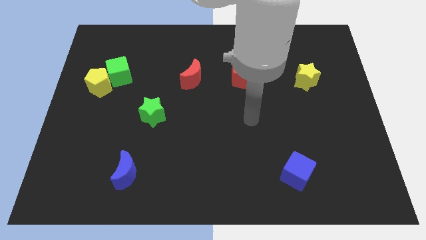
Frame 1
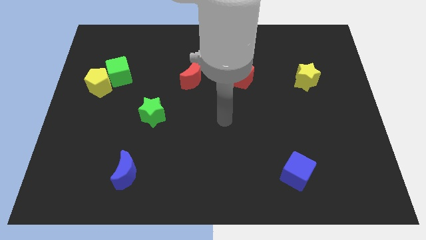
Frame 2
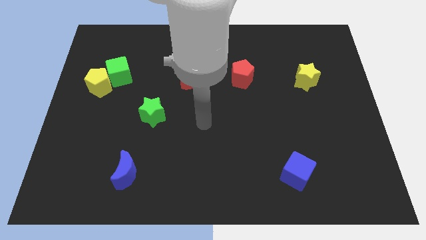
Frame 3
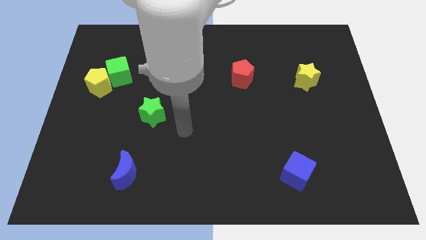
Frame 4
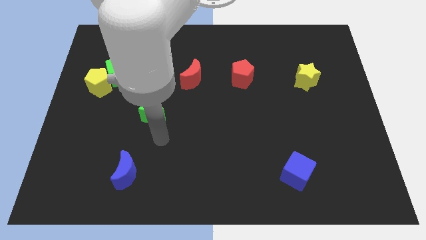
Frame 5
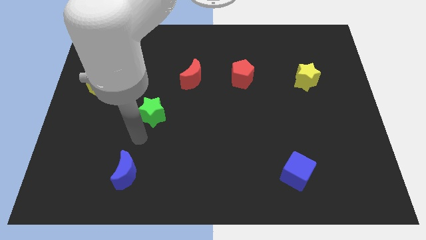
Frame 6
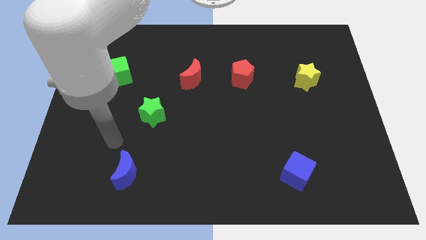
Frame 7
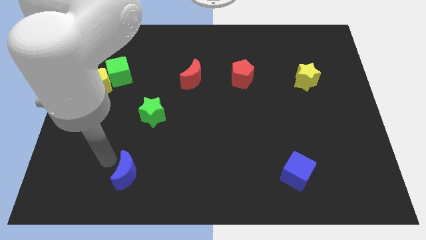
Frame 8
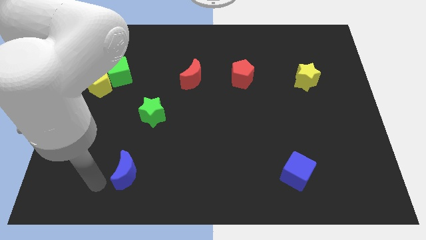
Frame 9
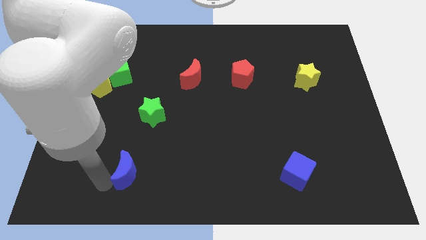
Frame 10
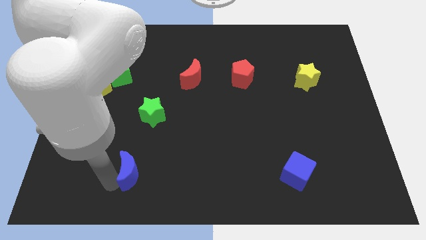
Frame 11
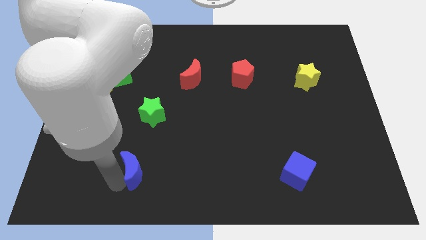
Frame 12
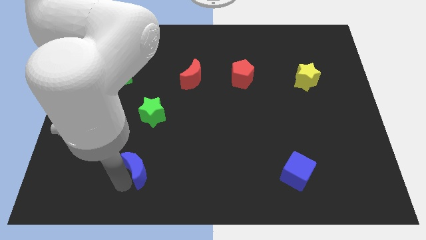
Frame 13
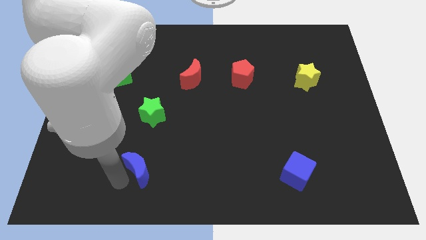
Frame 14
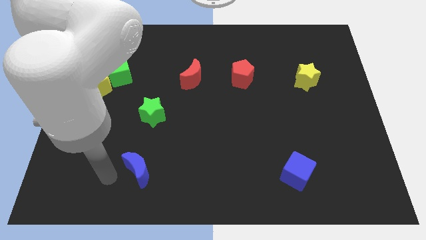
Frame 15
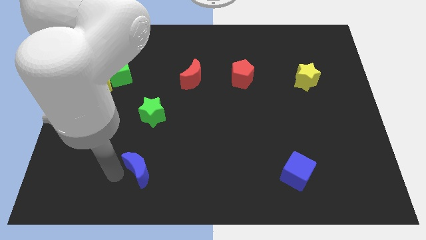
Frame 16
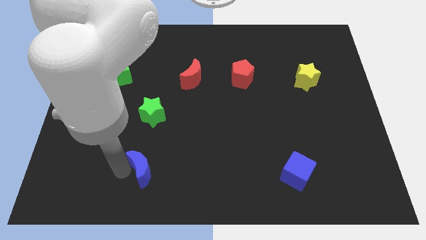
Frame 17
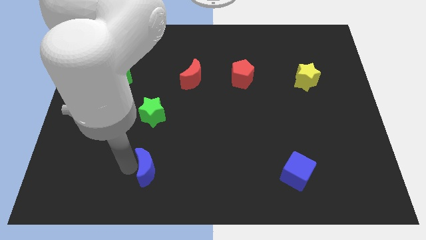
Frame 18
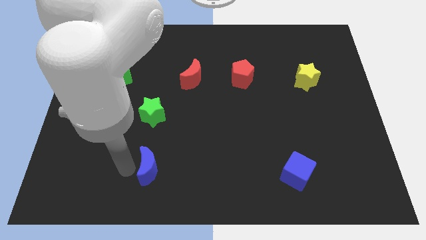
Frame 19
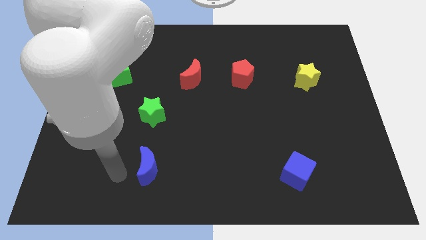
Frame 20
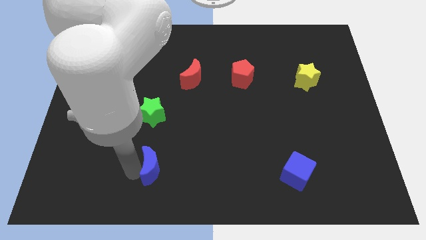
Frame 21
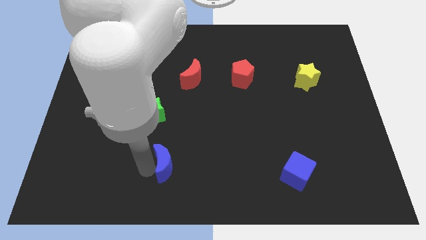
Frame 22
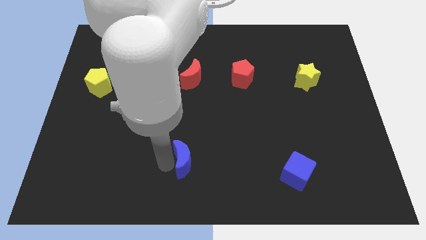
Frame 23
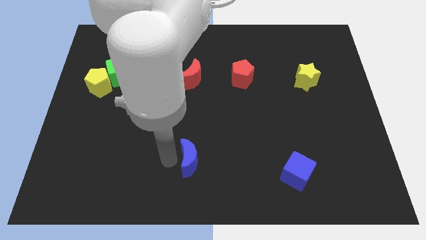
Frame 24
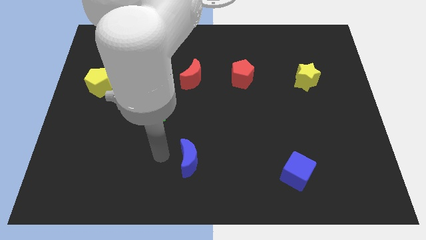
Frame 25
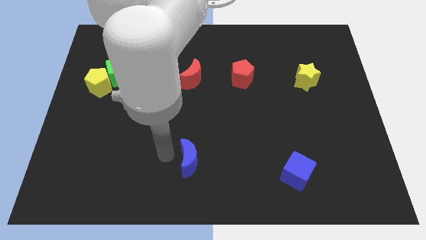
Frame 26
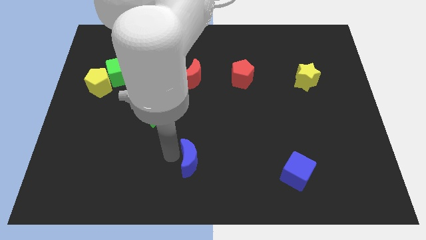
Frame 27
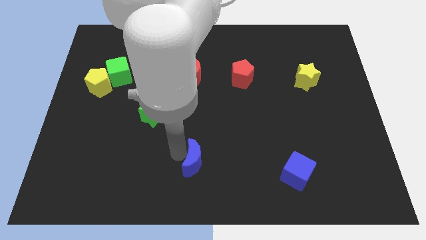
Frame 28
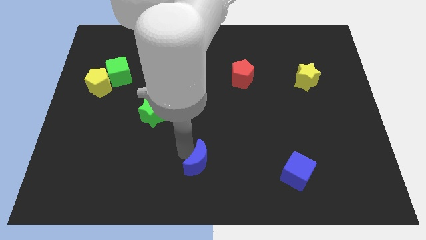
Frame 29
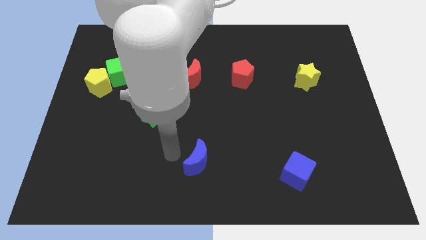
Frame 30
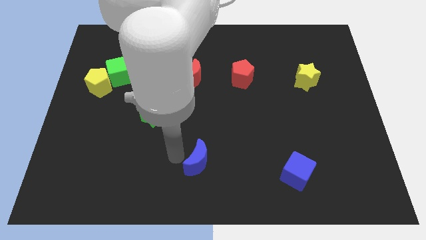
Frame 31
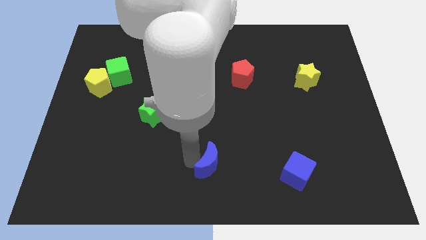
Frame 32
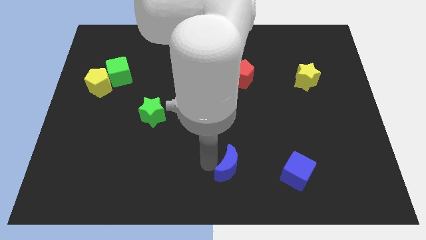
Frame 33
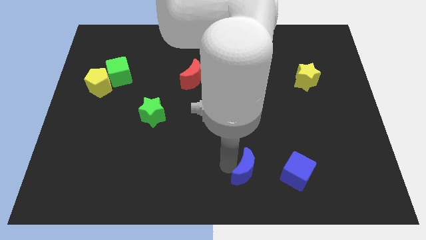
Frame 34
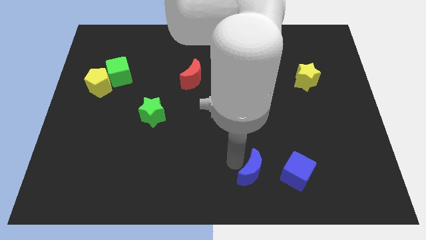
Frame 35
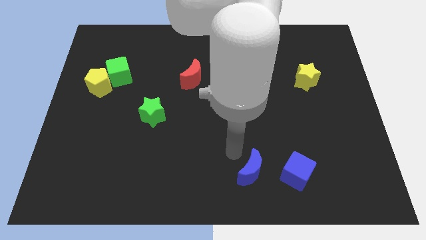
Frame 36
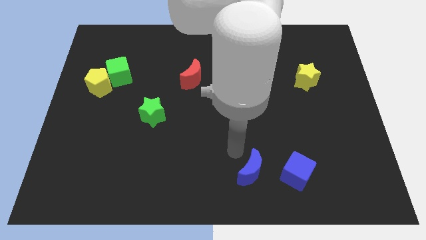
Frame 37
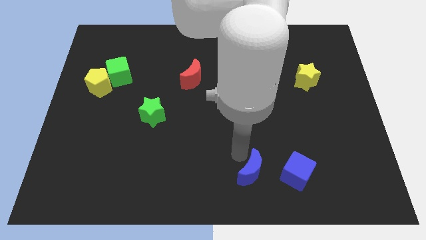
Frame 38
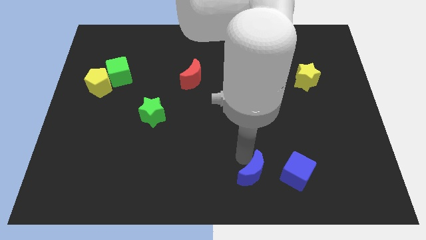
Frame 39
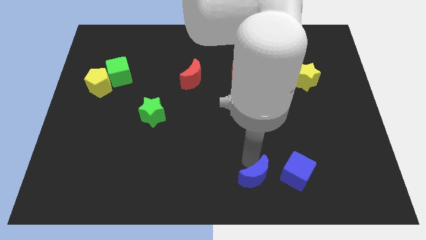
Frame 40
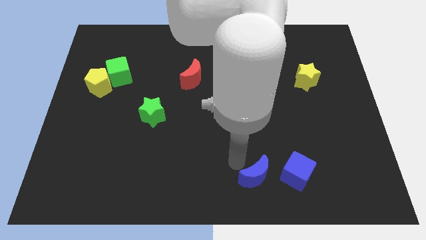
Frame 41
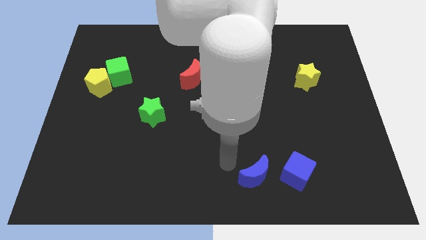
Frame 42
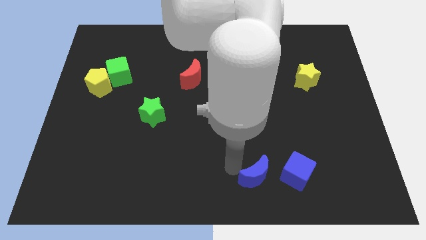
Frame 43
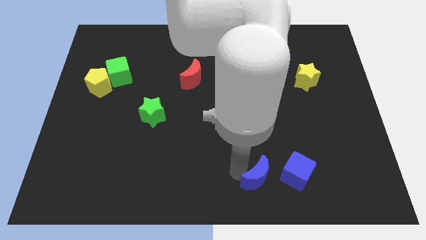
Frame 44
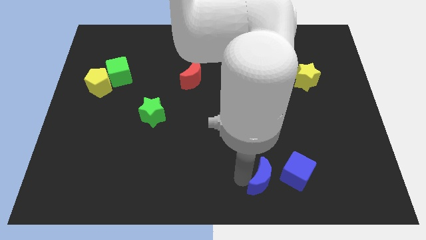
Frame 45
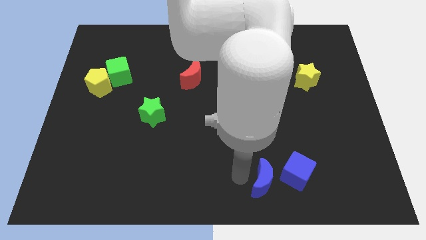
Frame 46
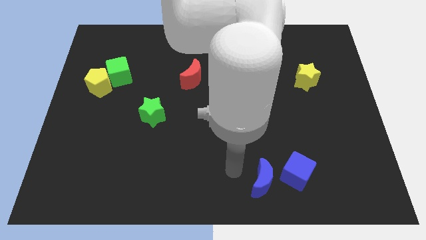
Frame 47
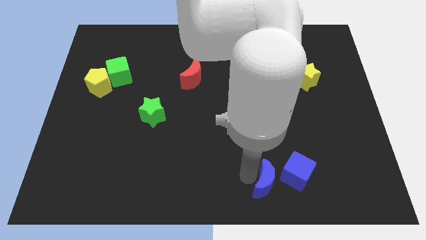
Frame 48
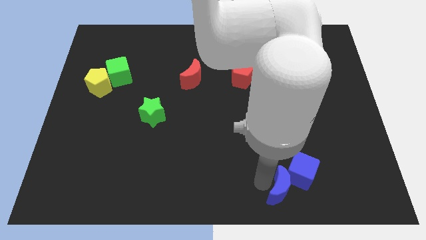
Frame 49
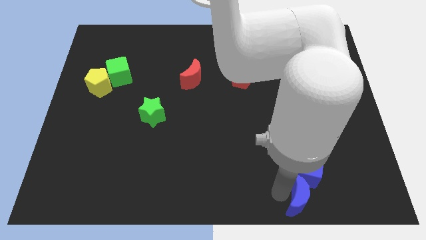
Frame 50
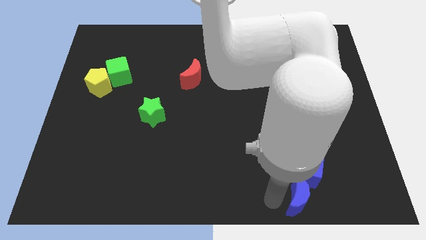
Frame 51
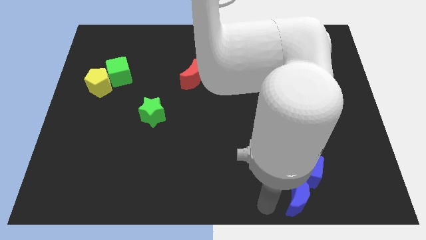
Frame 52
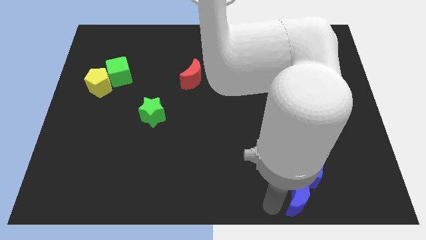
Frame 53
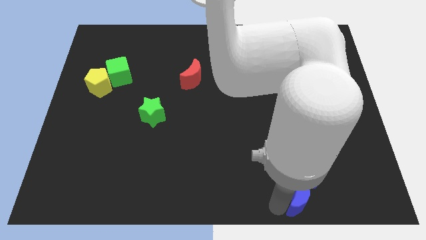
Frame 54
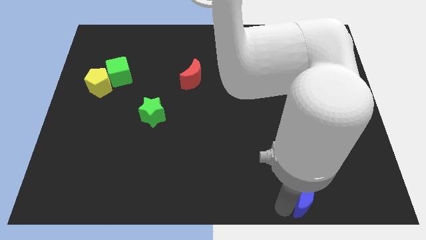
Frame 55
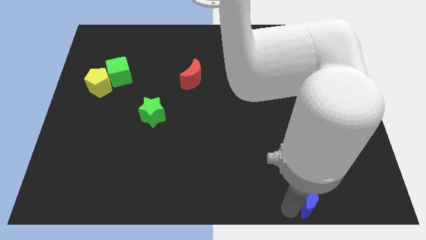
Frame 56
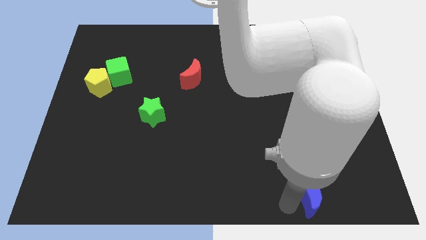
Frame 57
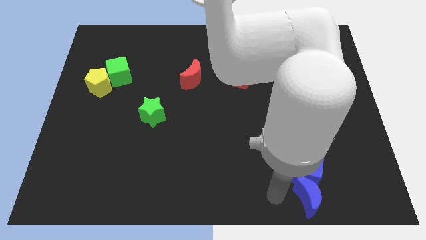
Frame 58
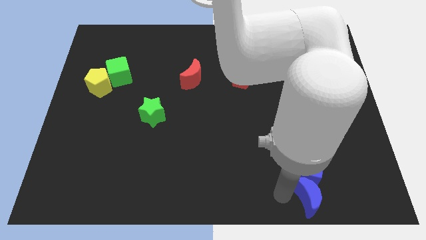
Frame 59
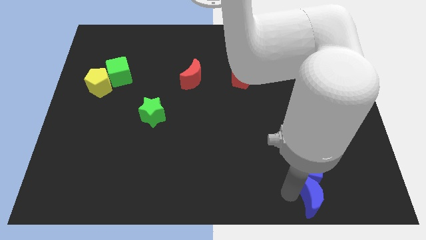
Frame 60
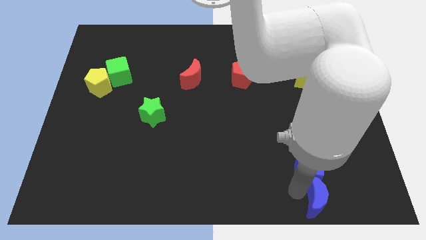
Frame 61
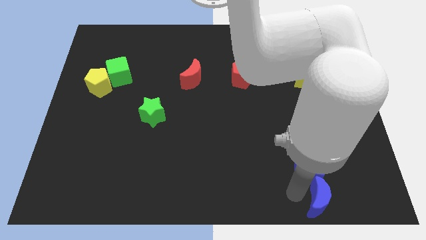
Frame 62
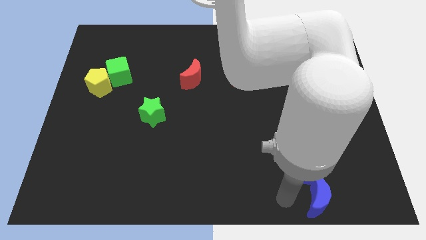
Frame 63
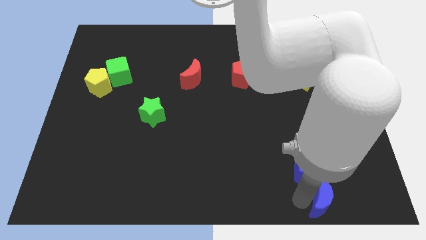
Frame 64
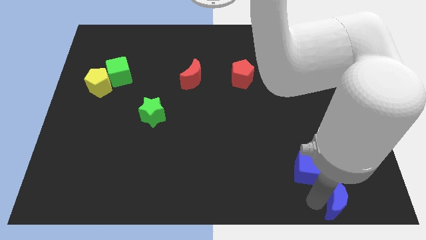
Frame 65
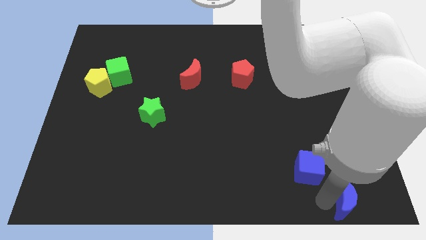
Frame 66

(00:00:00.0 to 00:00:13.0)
slide the blue moon to the bottom right

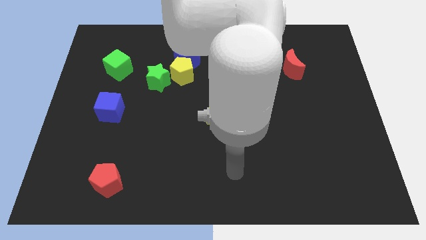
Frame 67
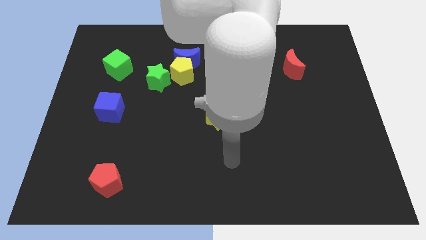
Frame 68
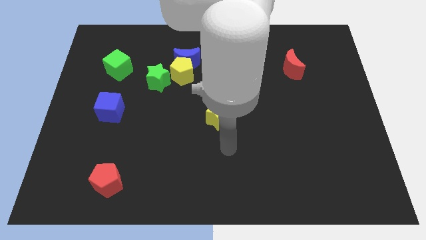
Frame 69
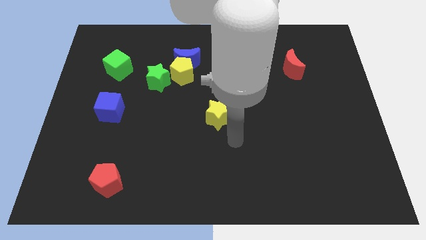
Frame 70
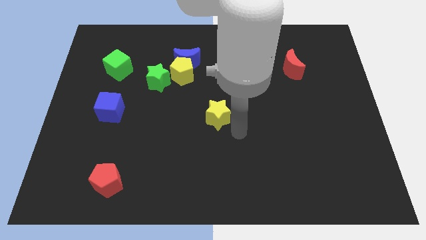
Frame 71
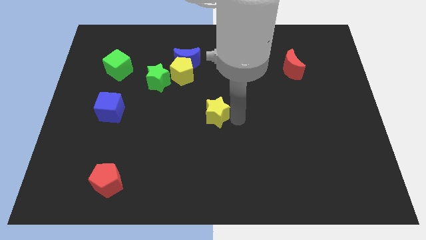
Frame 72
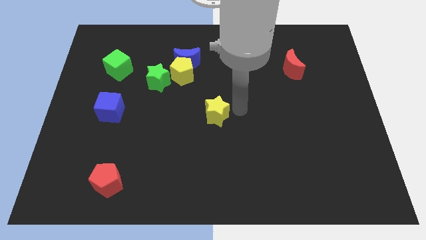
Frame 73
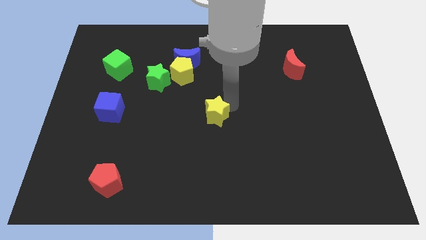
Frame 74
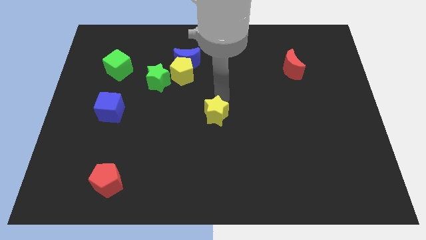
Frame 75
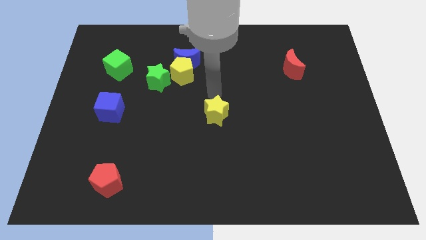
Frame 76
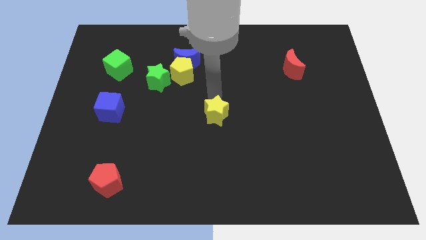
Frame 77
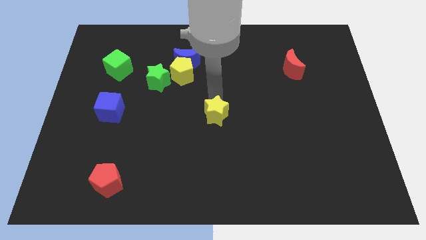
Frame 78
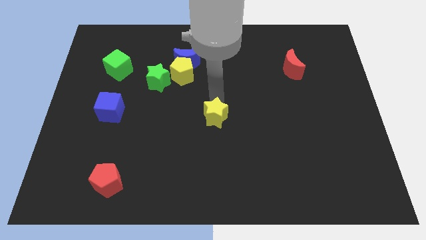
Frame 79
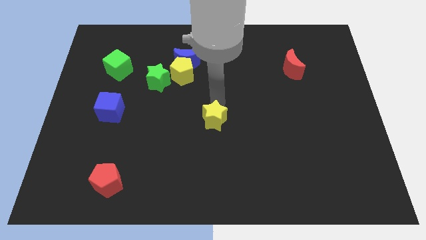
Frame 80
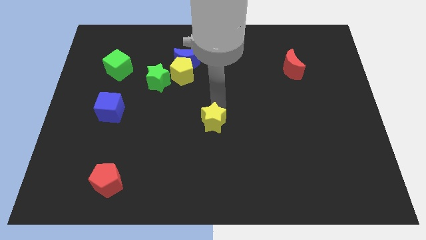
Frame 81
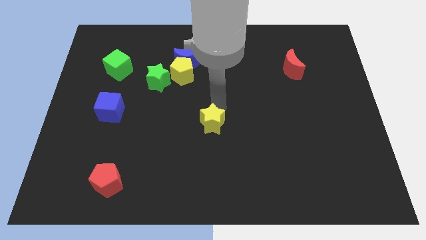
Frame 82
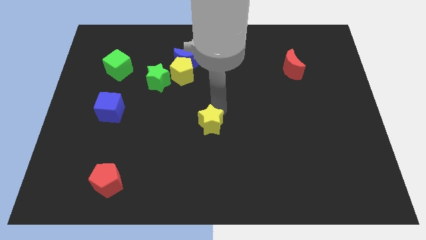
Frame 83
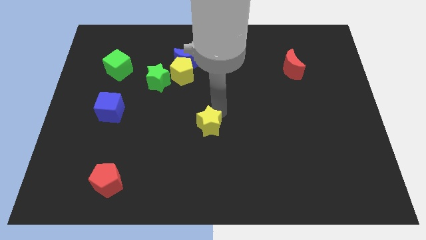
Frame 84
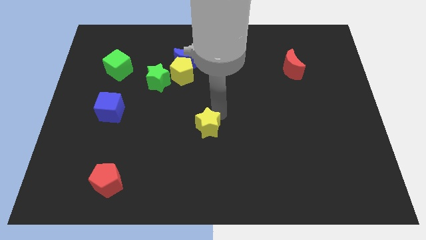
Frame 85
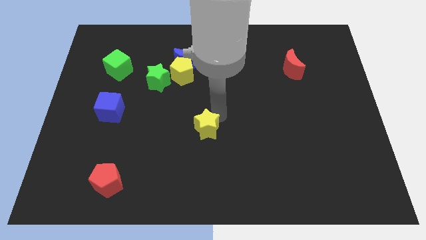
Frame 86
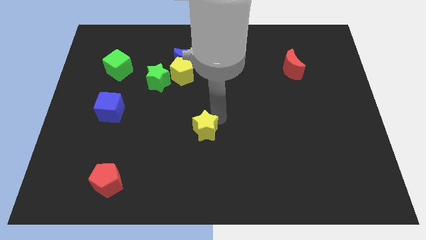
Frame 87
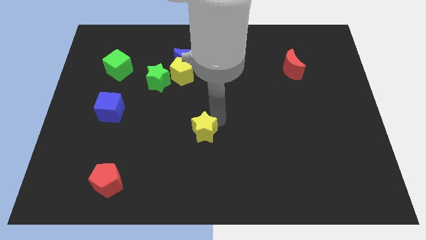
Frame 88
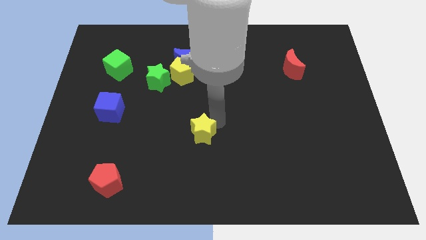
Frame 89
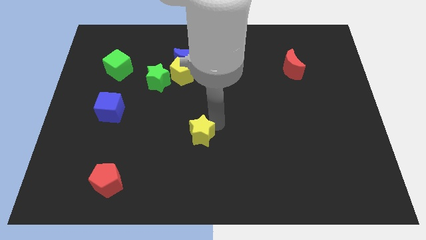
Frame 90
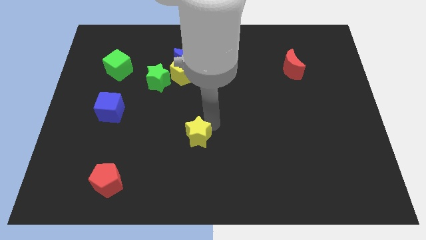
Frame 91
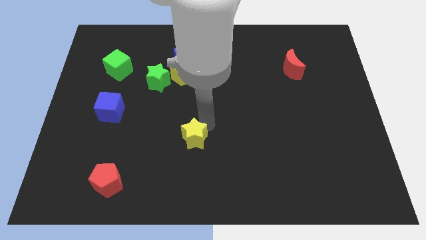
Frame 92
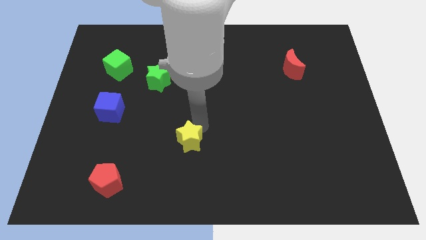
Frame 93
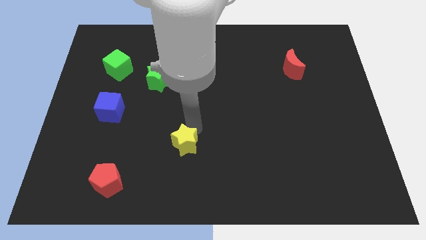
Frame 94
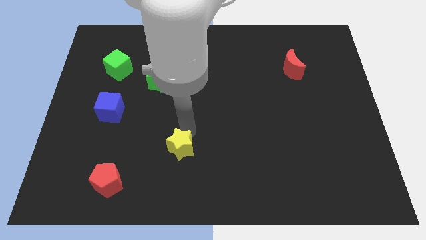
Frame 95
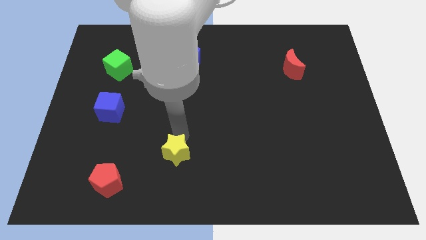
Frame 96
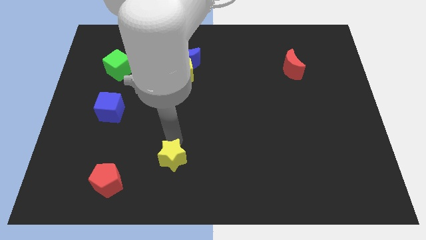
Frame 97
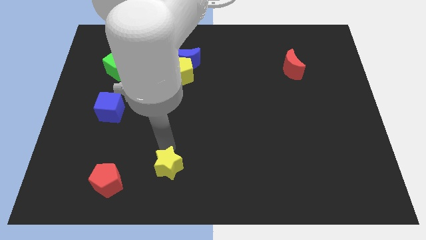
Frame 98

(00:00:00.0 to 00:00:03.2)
slide the yellow star to the bottom side
